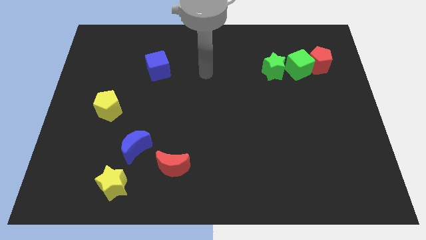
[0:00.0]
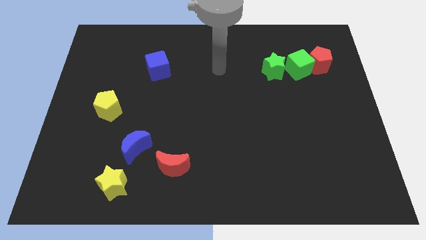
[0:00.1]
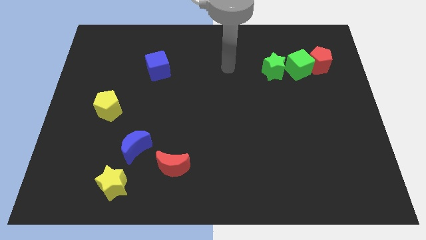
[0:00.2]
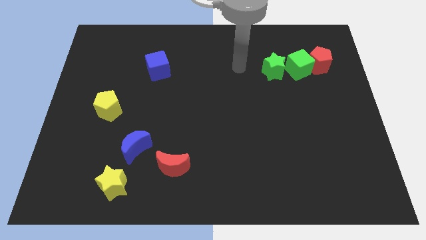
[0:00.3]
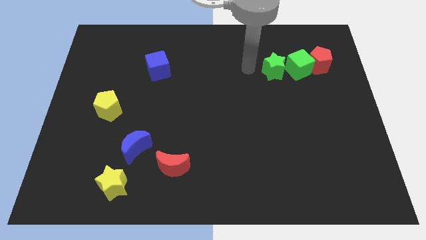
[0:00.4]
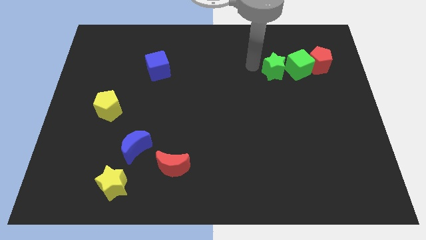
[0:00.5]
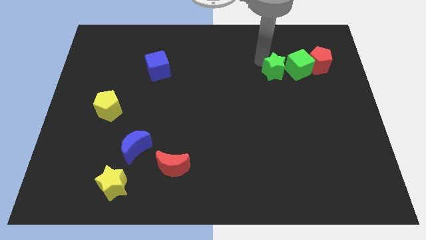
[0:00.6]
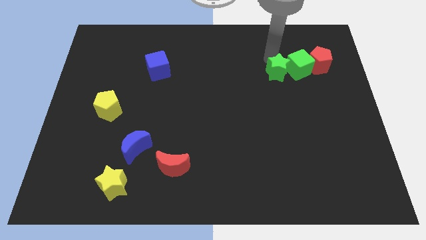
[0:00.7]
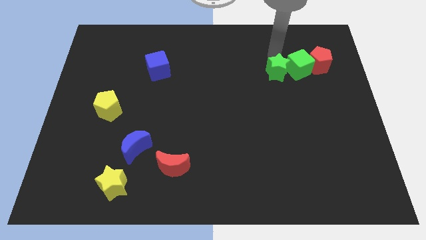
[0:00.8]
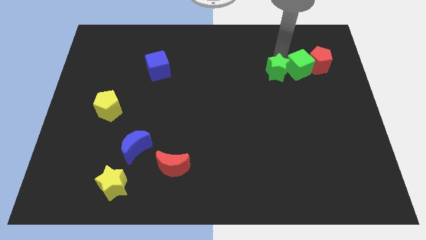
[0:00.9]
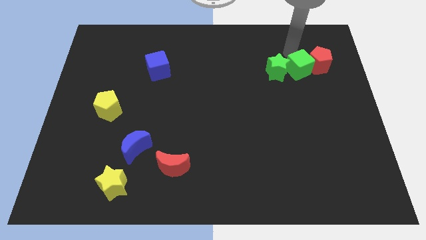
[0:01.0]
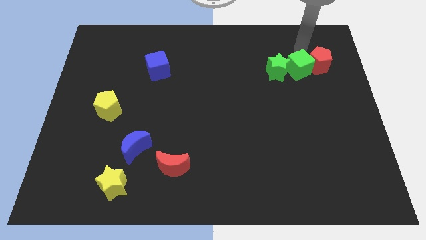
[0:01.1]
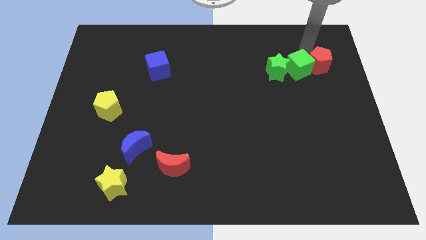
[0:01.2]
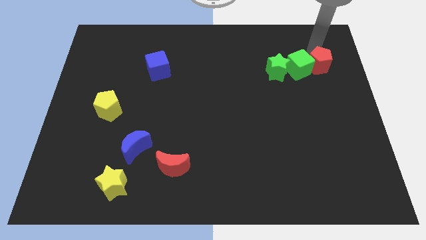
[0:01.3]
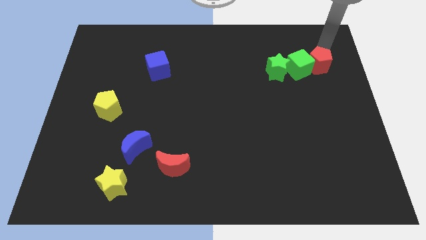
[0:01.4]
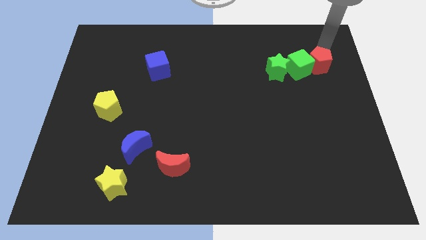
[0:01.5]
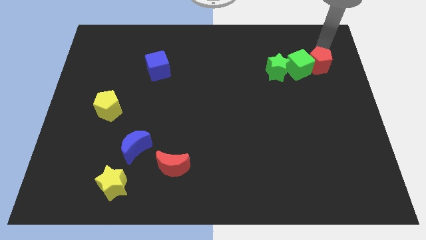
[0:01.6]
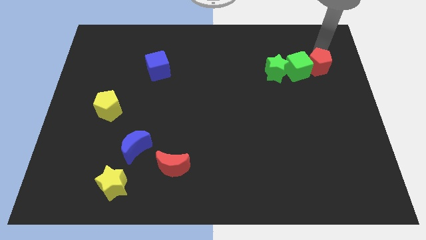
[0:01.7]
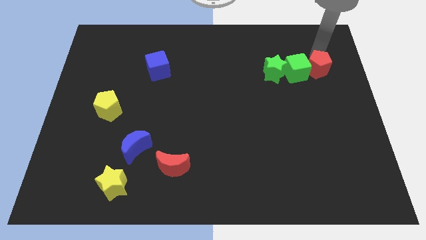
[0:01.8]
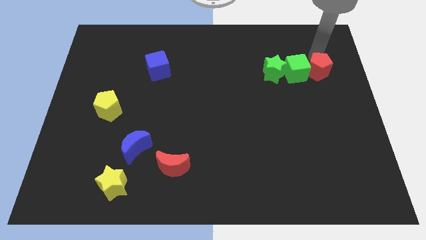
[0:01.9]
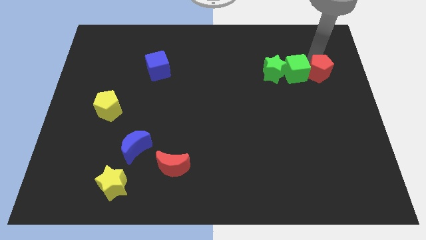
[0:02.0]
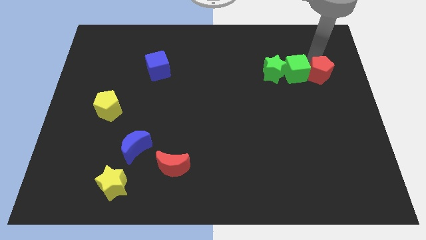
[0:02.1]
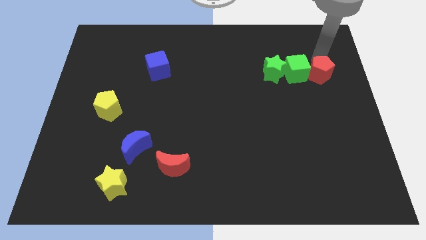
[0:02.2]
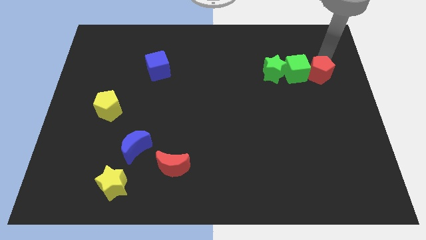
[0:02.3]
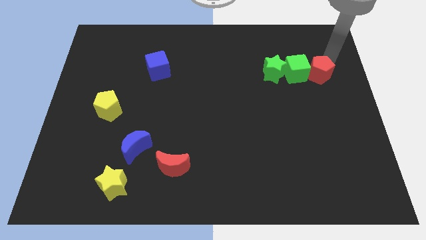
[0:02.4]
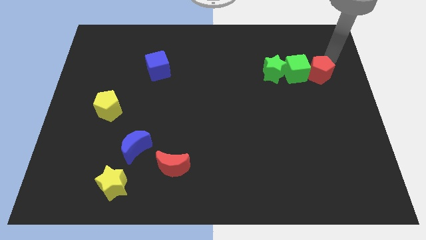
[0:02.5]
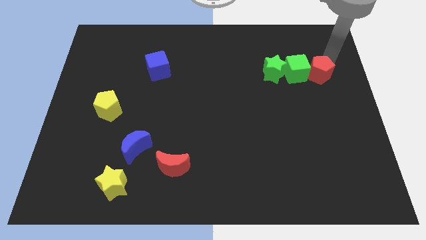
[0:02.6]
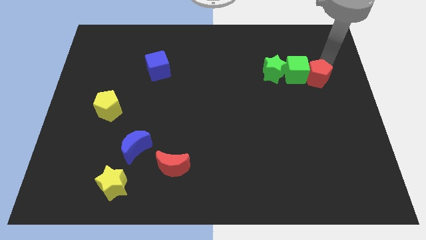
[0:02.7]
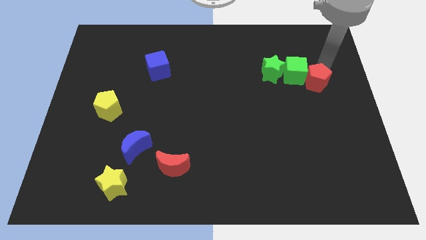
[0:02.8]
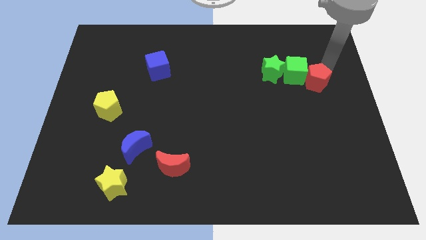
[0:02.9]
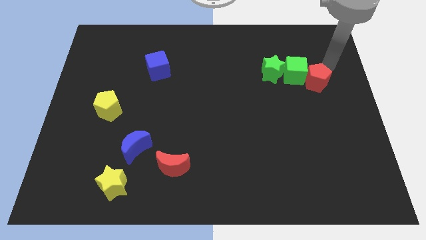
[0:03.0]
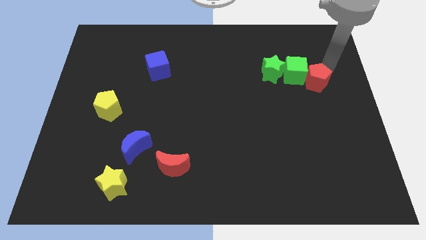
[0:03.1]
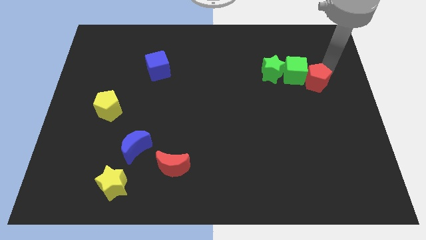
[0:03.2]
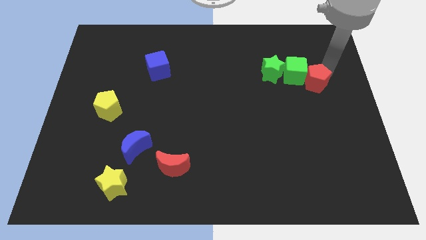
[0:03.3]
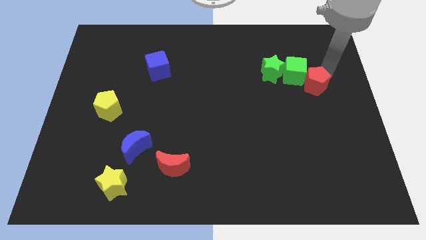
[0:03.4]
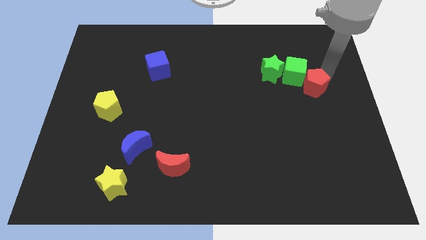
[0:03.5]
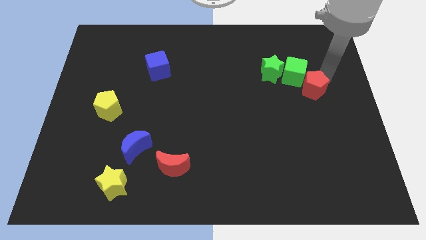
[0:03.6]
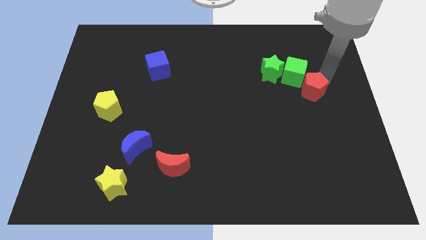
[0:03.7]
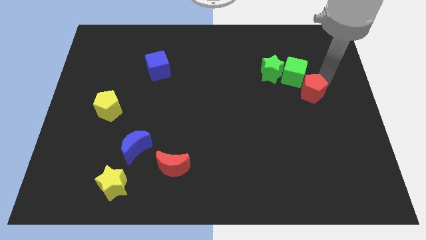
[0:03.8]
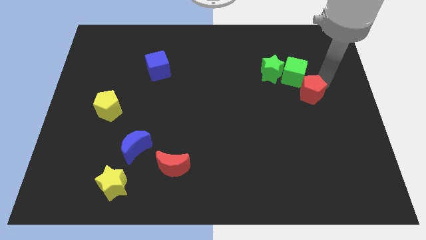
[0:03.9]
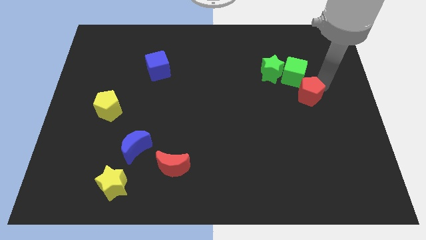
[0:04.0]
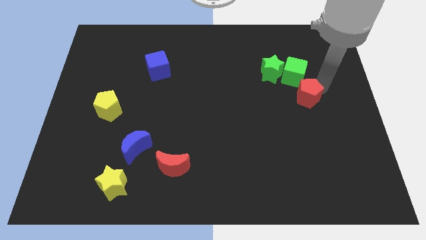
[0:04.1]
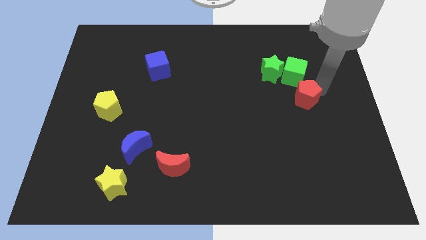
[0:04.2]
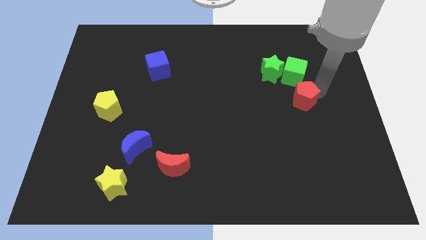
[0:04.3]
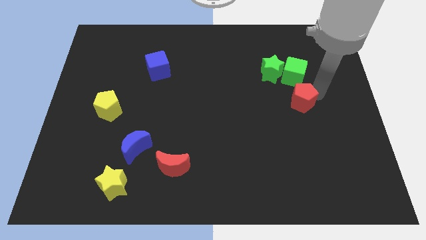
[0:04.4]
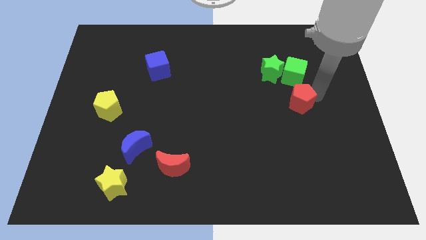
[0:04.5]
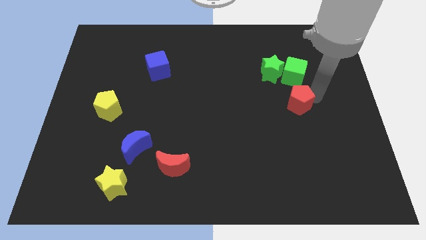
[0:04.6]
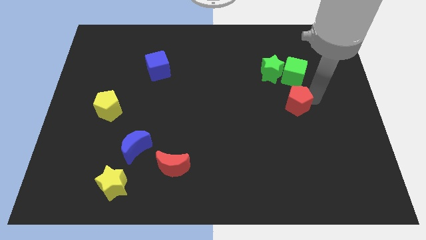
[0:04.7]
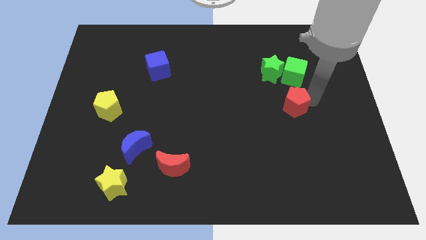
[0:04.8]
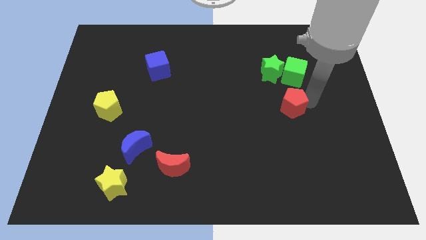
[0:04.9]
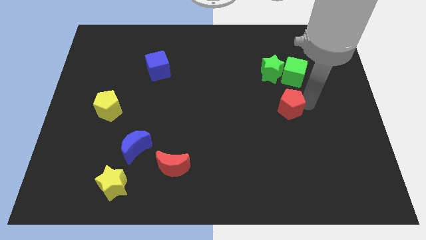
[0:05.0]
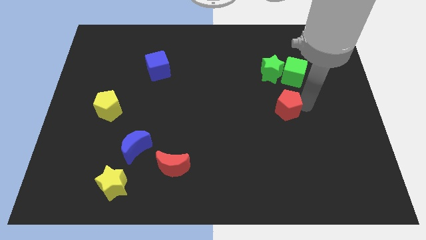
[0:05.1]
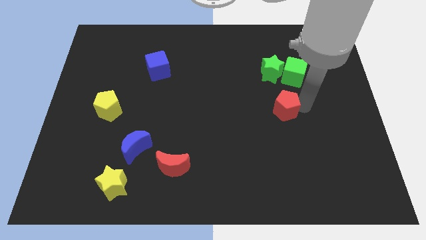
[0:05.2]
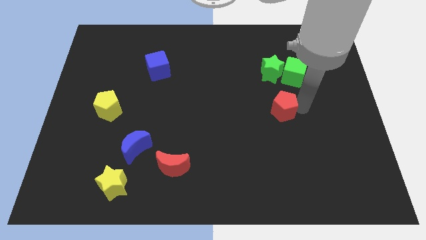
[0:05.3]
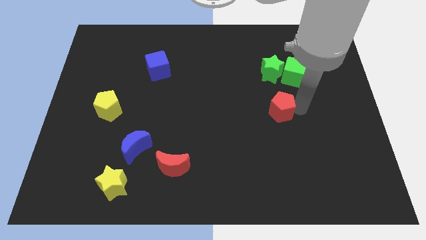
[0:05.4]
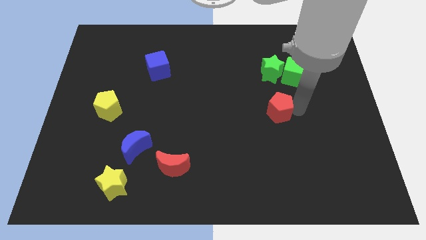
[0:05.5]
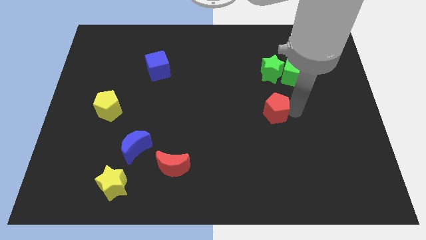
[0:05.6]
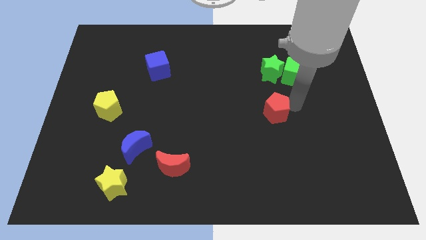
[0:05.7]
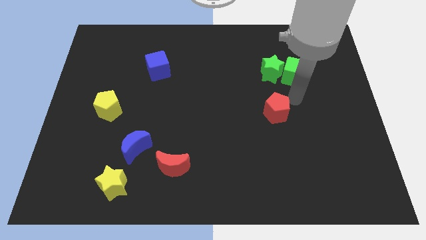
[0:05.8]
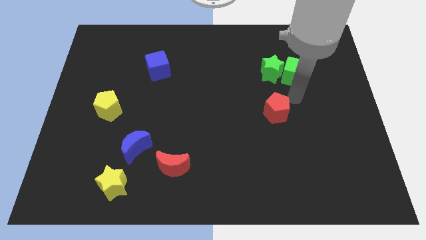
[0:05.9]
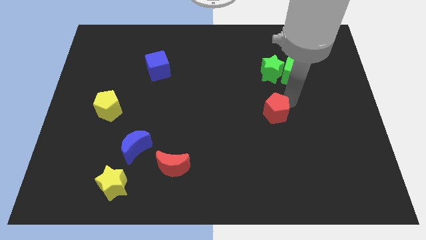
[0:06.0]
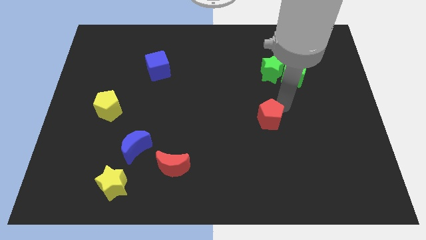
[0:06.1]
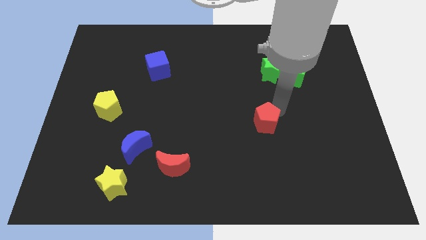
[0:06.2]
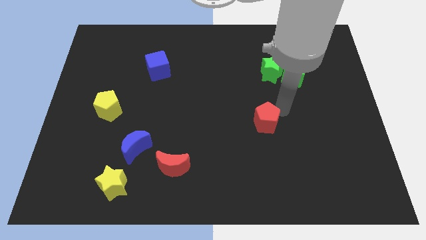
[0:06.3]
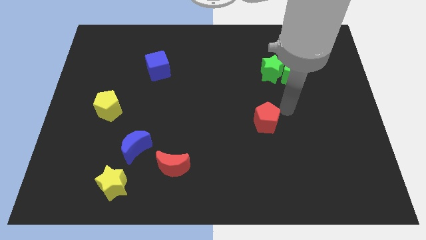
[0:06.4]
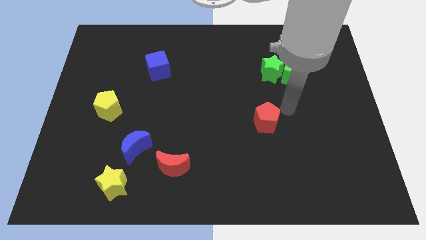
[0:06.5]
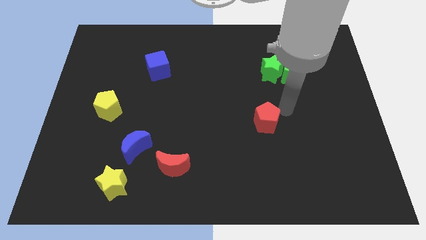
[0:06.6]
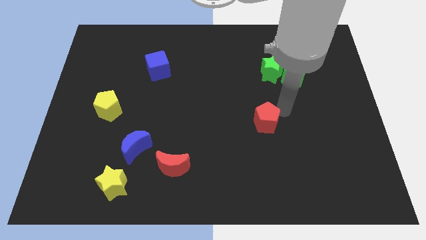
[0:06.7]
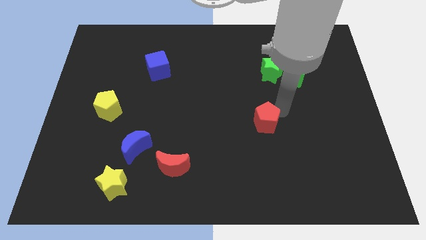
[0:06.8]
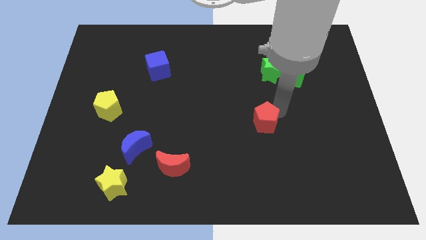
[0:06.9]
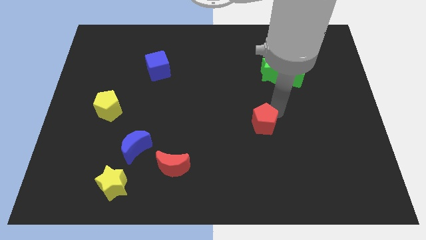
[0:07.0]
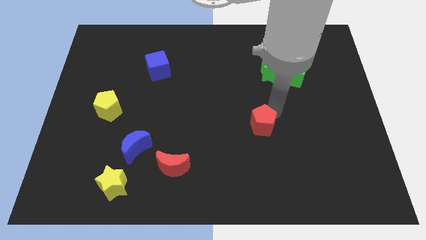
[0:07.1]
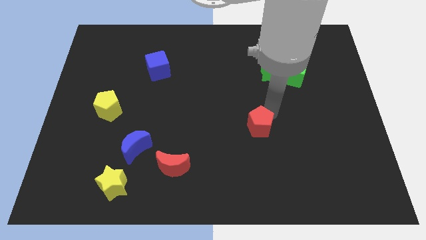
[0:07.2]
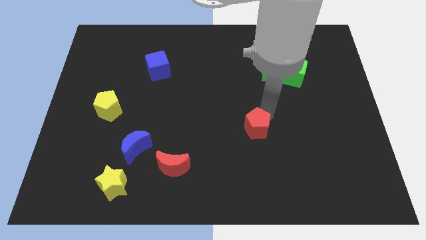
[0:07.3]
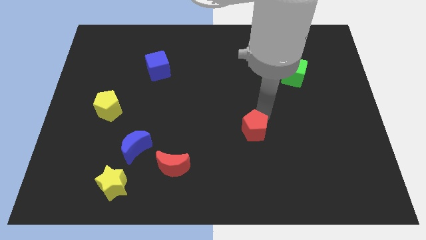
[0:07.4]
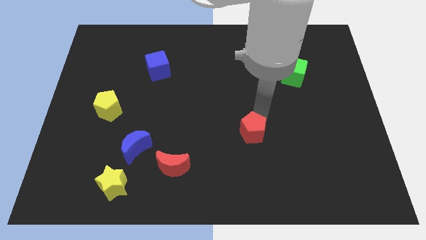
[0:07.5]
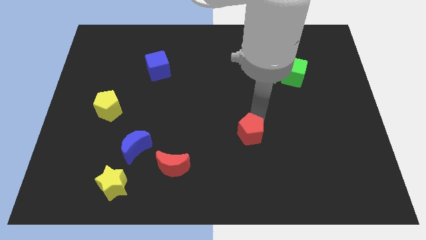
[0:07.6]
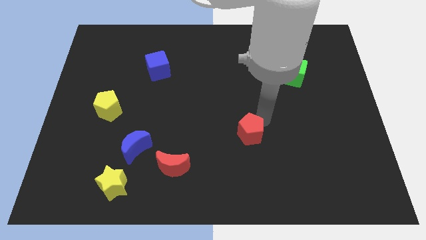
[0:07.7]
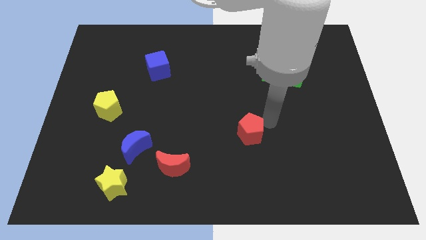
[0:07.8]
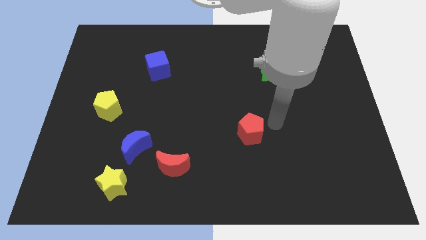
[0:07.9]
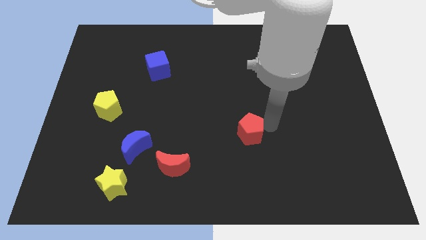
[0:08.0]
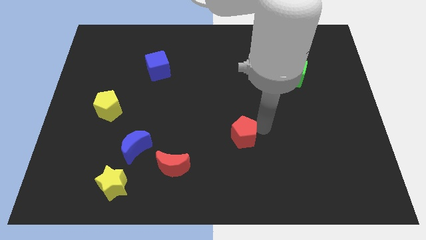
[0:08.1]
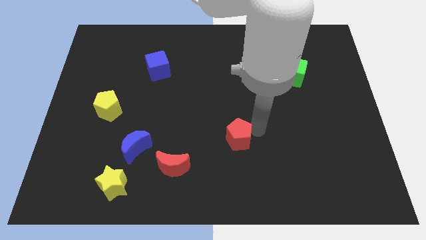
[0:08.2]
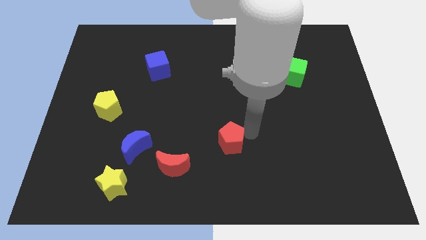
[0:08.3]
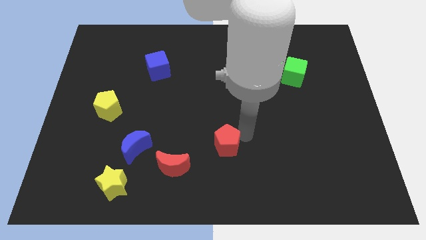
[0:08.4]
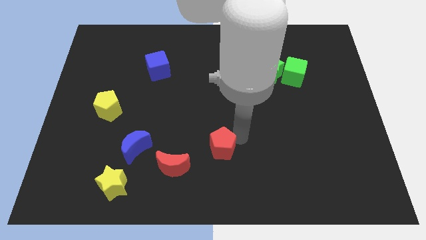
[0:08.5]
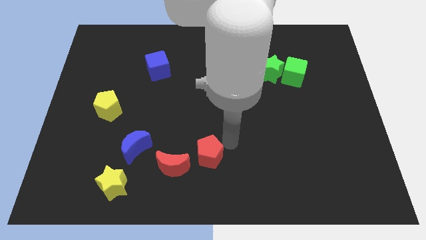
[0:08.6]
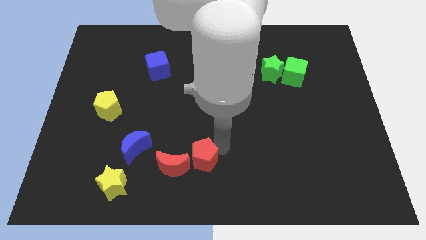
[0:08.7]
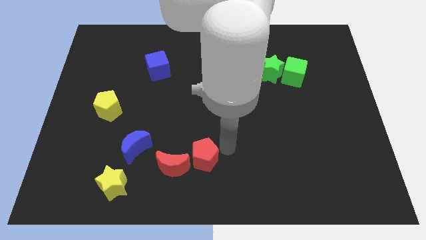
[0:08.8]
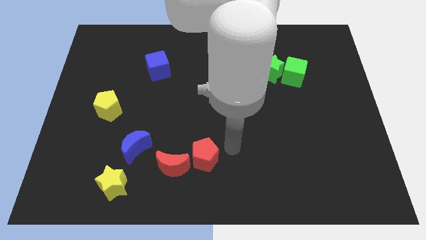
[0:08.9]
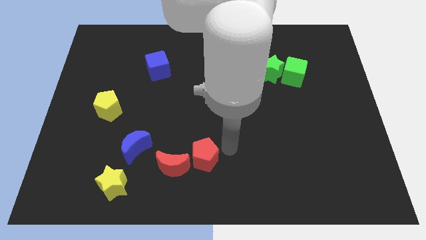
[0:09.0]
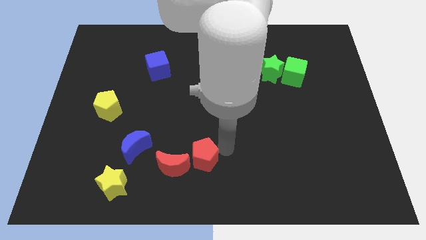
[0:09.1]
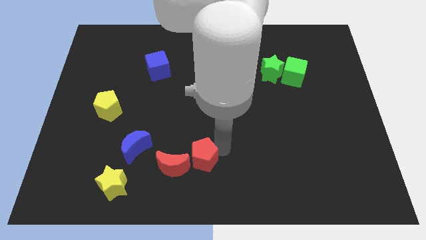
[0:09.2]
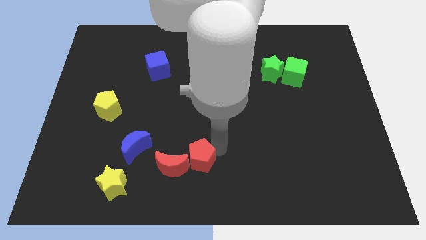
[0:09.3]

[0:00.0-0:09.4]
put the red pentagon next to the red moon
